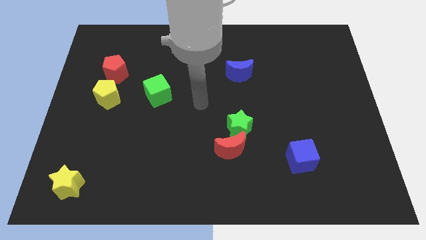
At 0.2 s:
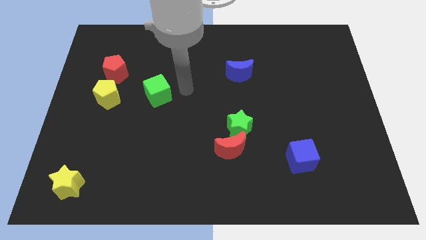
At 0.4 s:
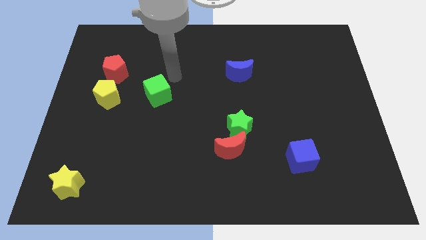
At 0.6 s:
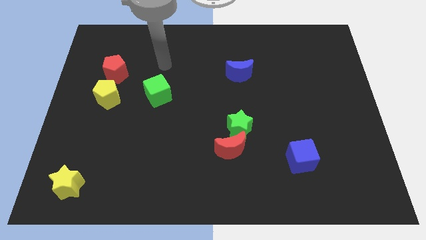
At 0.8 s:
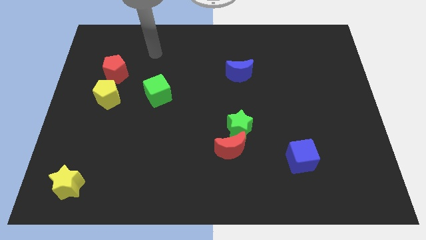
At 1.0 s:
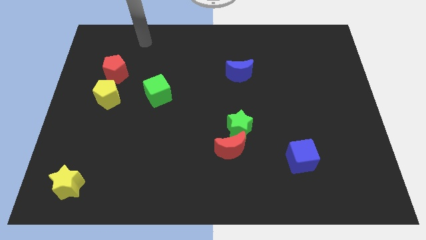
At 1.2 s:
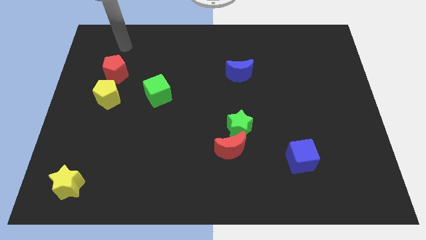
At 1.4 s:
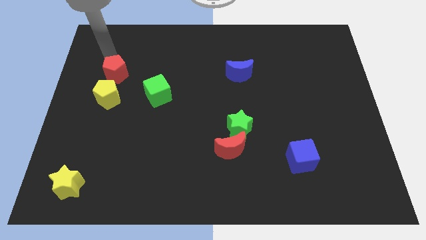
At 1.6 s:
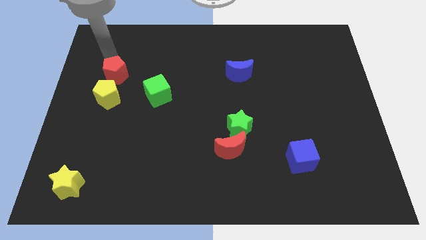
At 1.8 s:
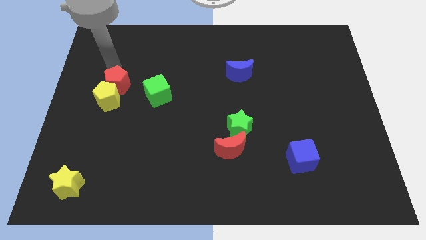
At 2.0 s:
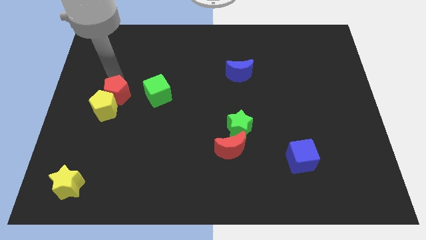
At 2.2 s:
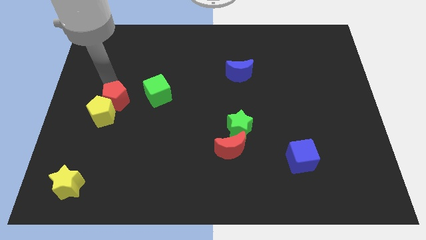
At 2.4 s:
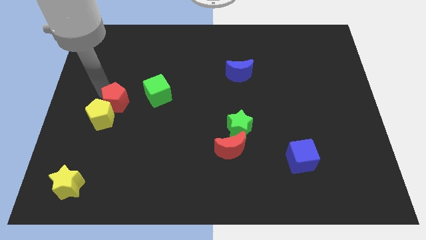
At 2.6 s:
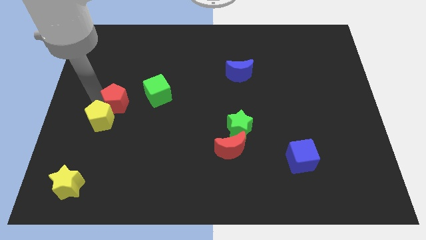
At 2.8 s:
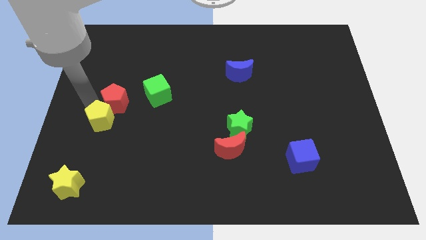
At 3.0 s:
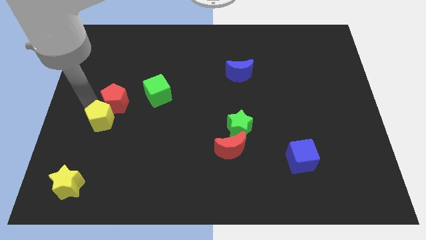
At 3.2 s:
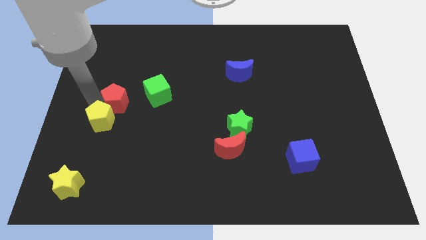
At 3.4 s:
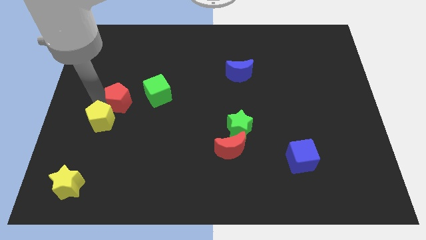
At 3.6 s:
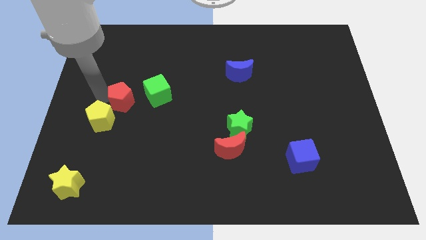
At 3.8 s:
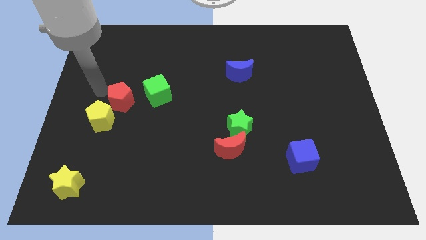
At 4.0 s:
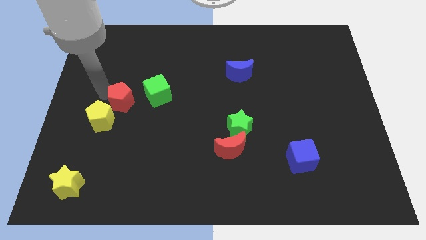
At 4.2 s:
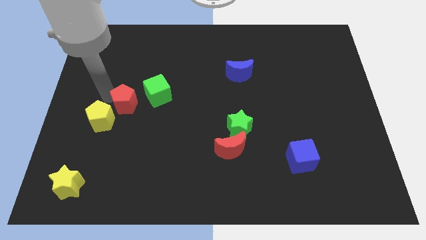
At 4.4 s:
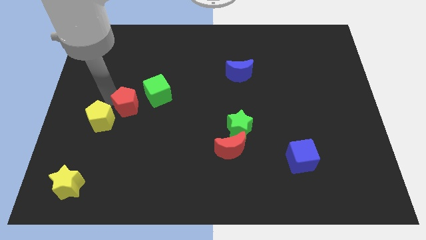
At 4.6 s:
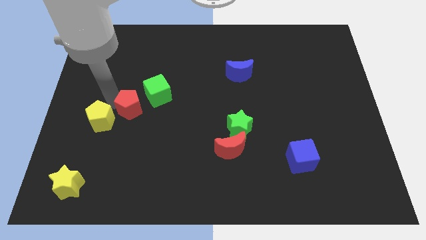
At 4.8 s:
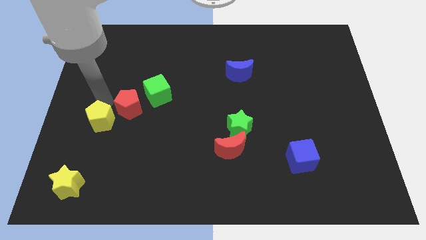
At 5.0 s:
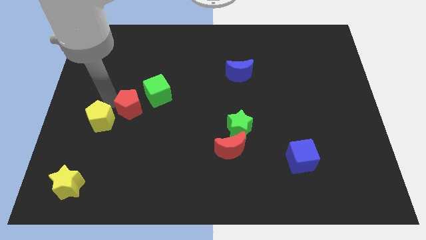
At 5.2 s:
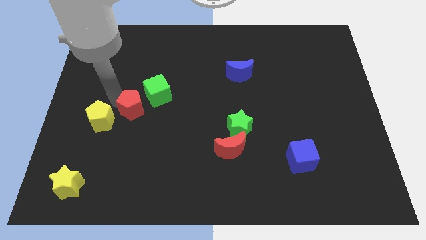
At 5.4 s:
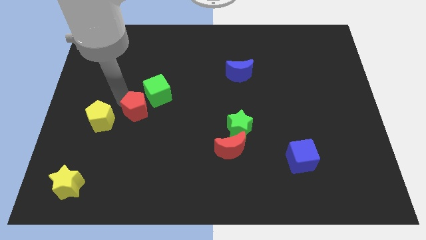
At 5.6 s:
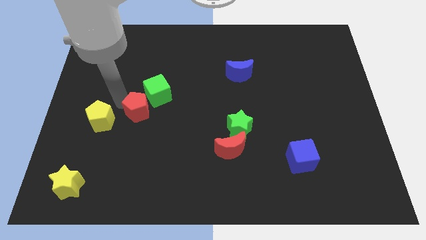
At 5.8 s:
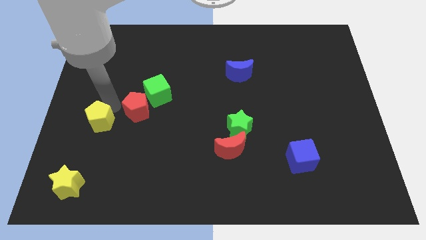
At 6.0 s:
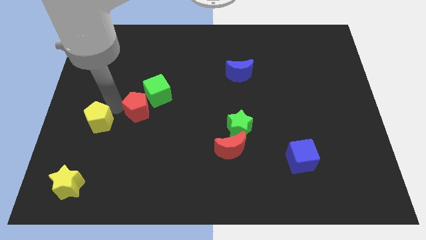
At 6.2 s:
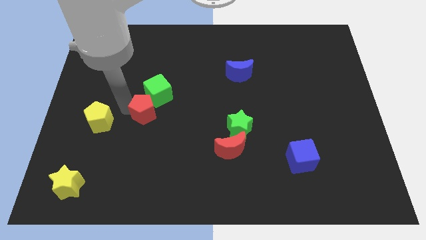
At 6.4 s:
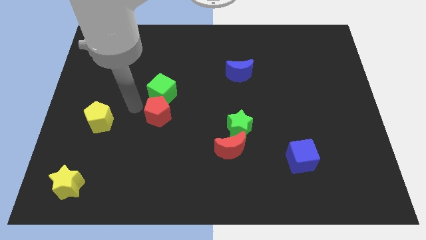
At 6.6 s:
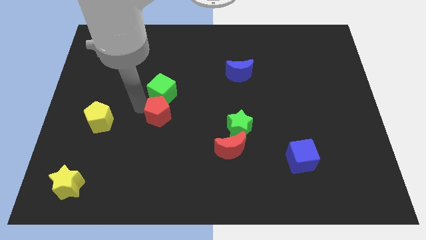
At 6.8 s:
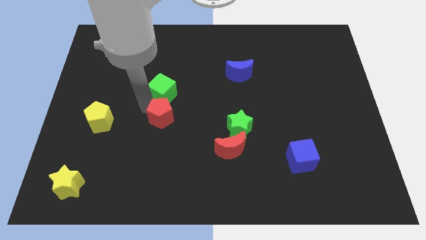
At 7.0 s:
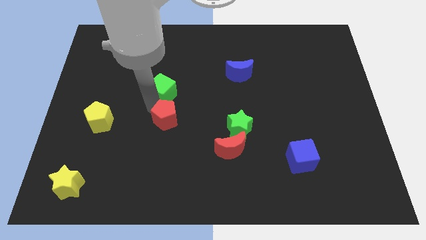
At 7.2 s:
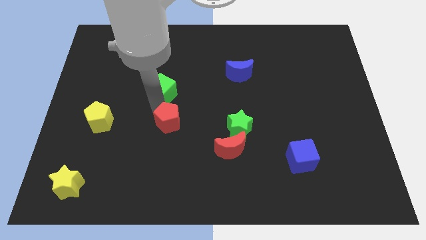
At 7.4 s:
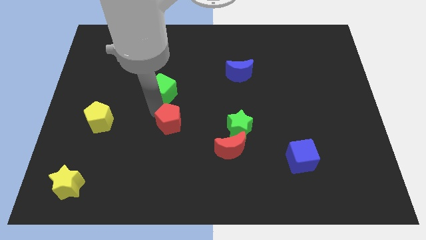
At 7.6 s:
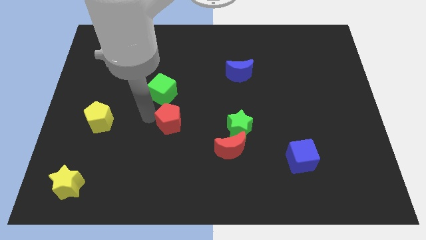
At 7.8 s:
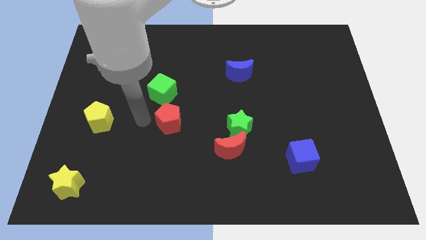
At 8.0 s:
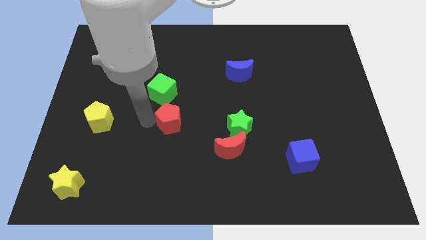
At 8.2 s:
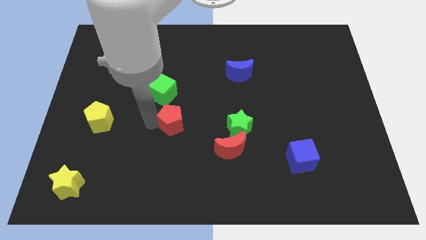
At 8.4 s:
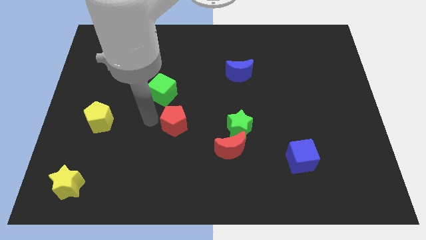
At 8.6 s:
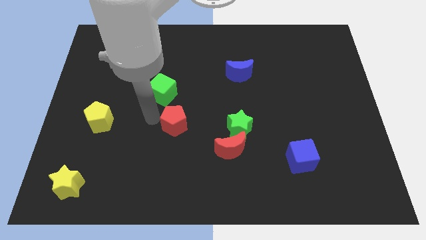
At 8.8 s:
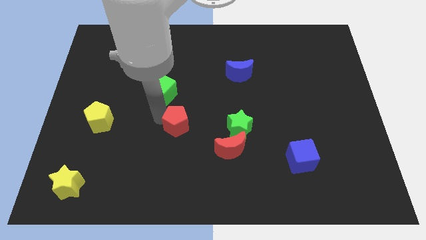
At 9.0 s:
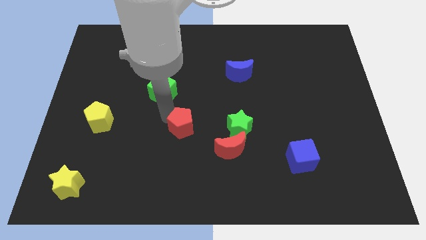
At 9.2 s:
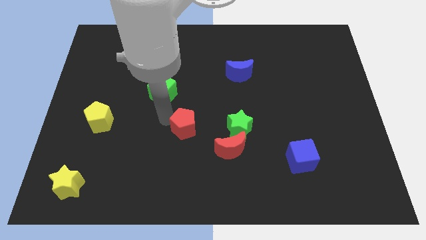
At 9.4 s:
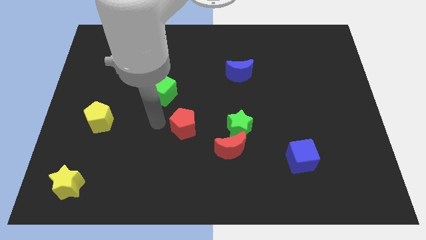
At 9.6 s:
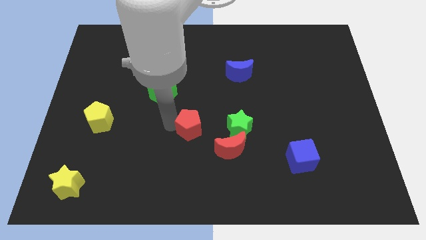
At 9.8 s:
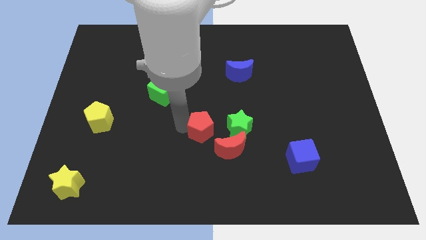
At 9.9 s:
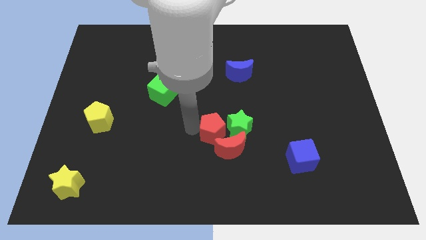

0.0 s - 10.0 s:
push the red pentagon close to the green star

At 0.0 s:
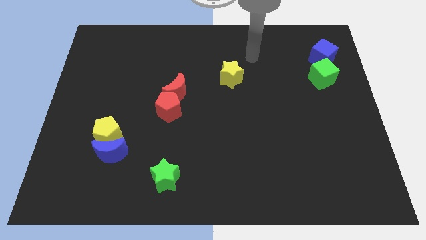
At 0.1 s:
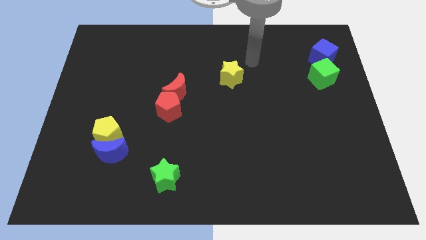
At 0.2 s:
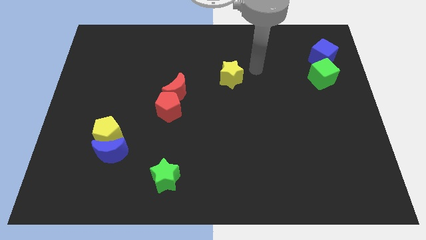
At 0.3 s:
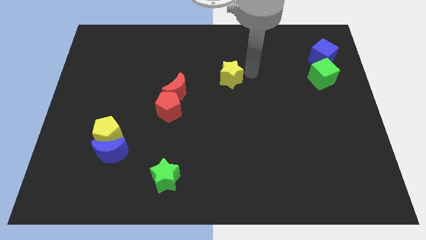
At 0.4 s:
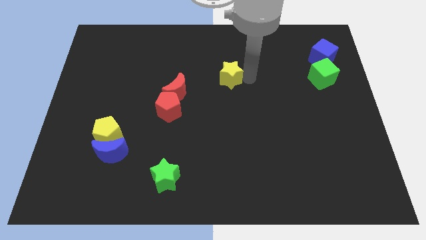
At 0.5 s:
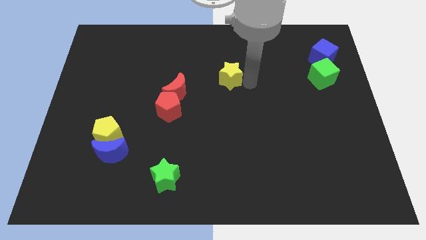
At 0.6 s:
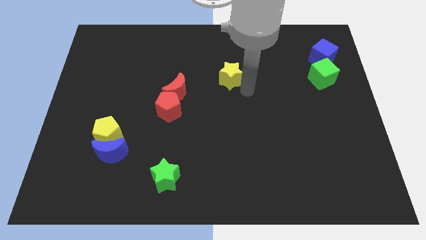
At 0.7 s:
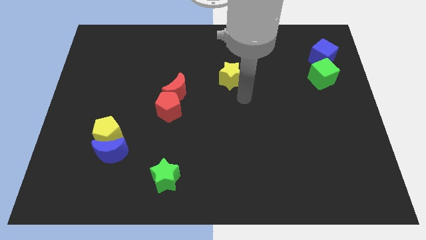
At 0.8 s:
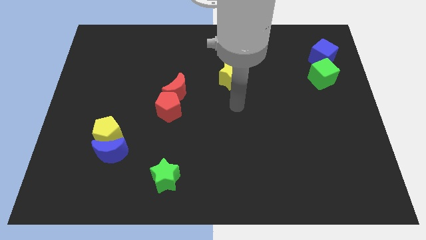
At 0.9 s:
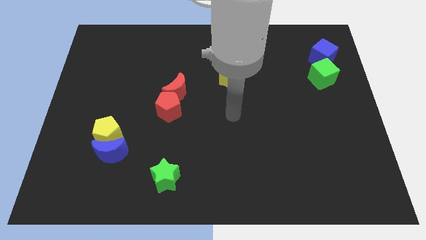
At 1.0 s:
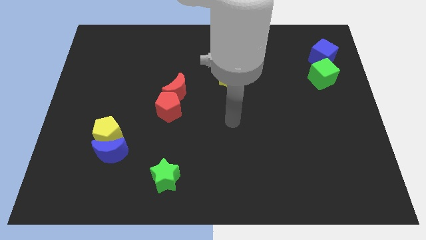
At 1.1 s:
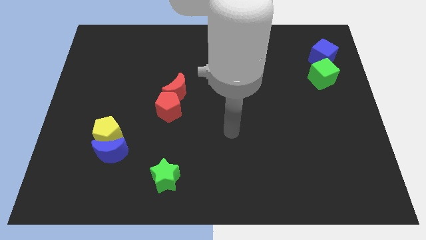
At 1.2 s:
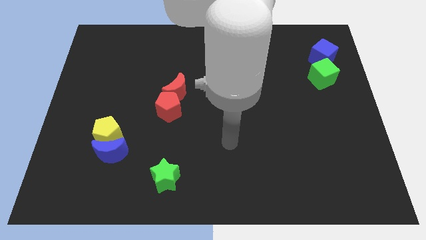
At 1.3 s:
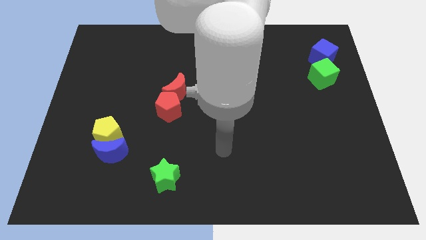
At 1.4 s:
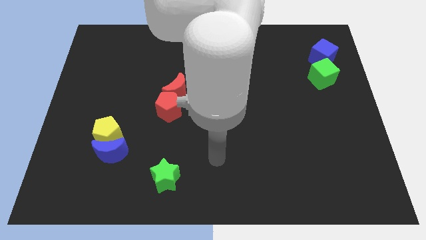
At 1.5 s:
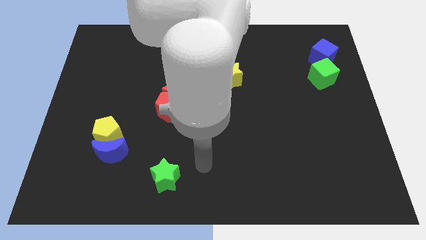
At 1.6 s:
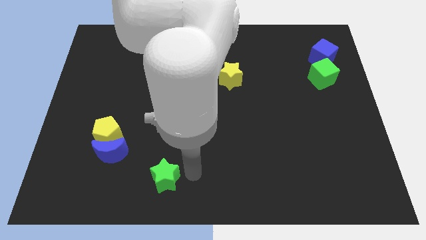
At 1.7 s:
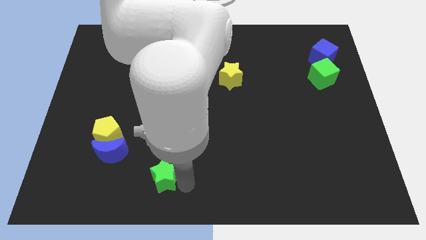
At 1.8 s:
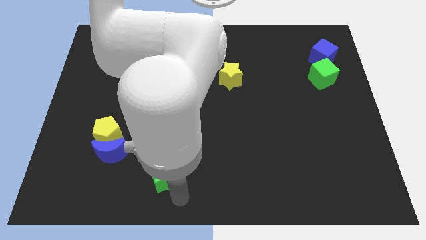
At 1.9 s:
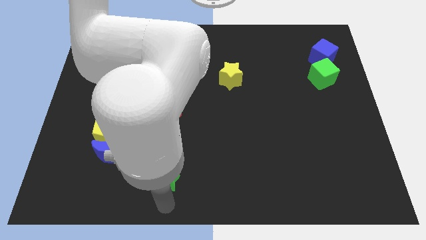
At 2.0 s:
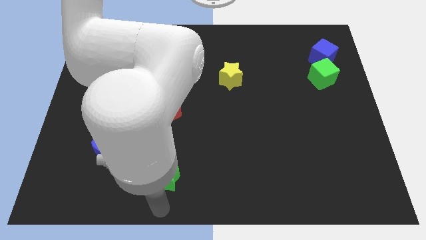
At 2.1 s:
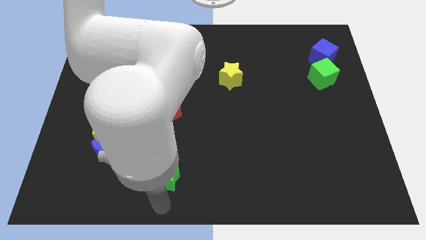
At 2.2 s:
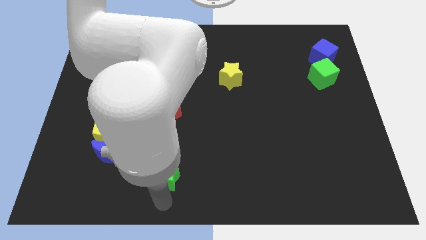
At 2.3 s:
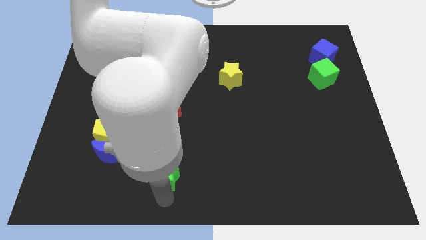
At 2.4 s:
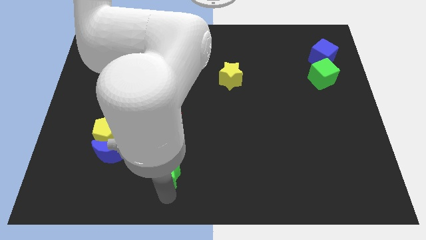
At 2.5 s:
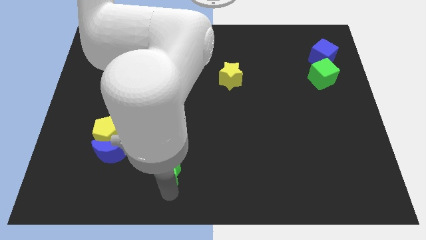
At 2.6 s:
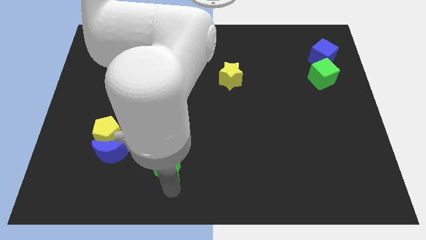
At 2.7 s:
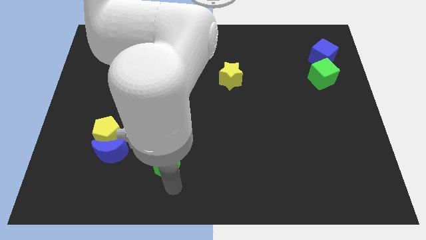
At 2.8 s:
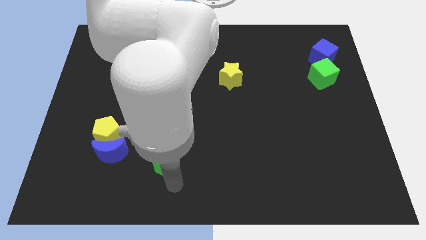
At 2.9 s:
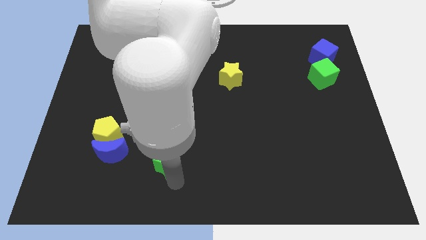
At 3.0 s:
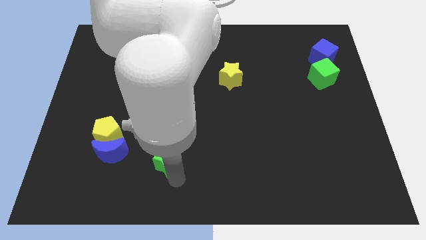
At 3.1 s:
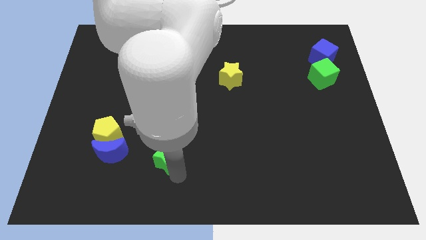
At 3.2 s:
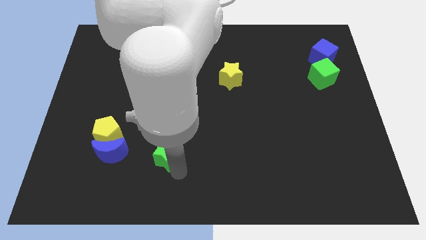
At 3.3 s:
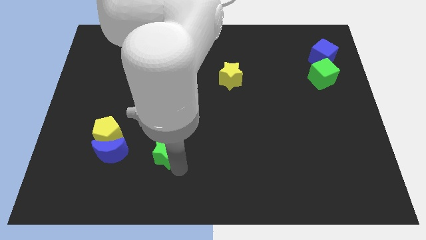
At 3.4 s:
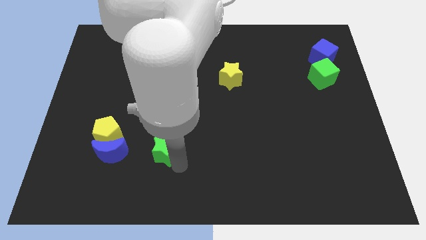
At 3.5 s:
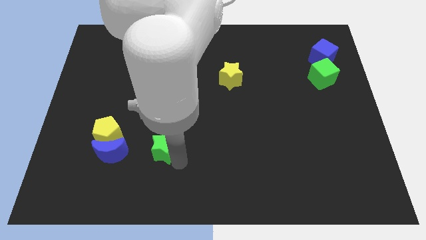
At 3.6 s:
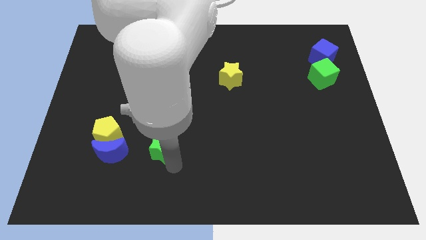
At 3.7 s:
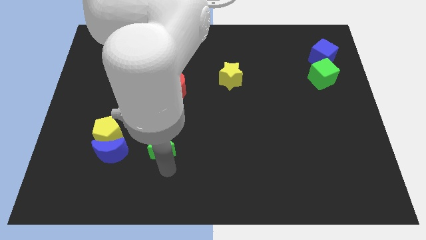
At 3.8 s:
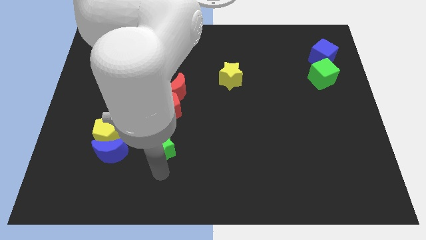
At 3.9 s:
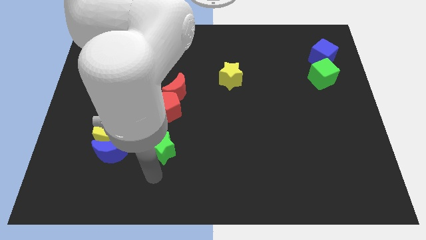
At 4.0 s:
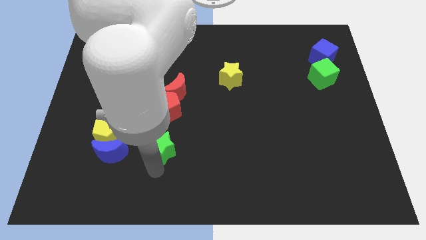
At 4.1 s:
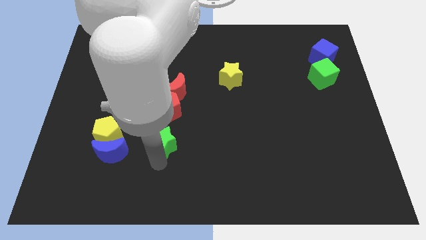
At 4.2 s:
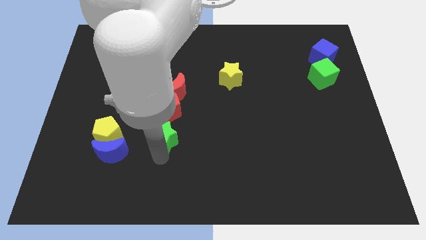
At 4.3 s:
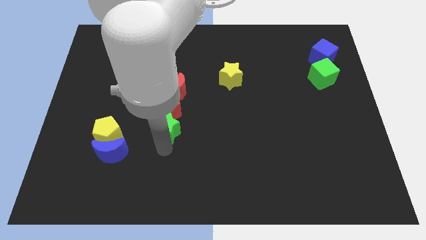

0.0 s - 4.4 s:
slide the green star to the red pentagon
